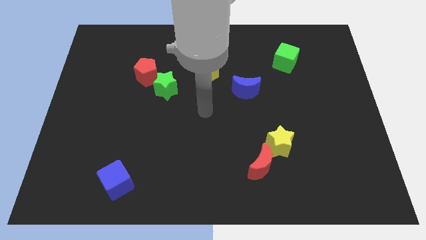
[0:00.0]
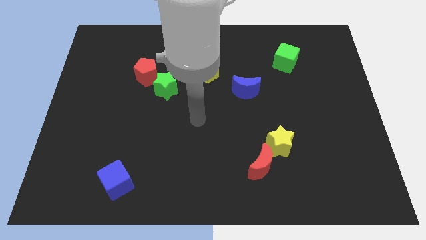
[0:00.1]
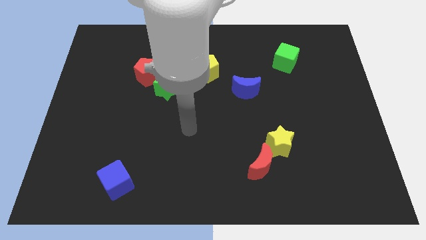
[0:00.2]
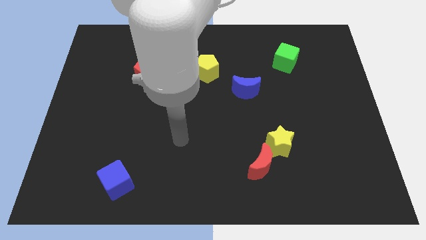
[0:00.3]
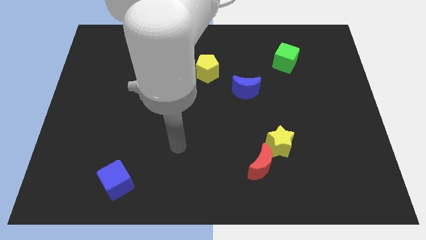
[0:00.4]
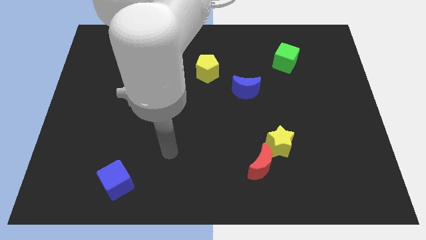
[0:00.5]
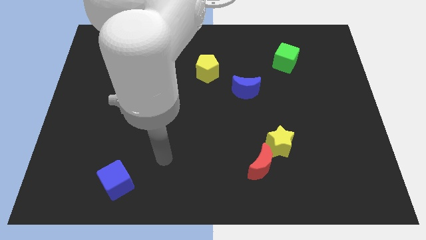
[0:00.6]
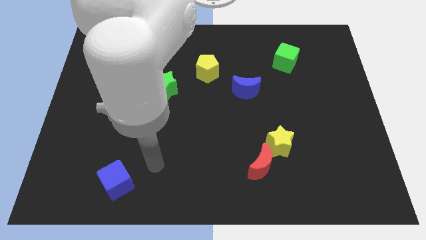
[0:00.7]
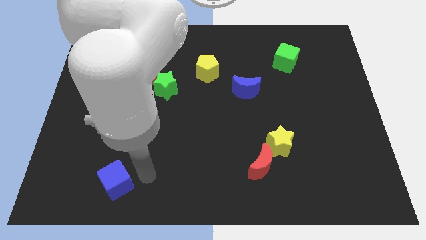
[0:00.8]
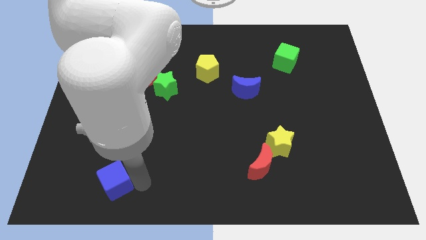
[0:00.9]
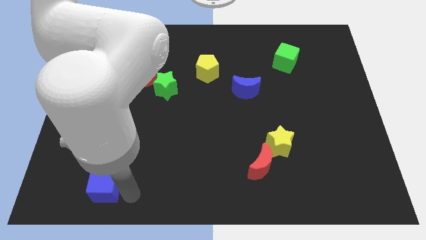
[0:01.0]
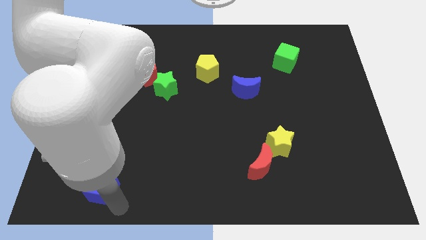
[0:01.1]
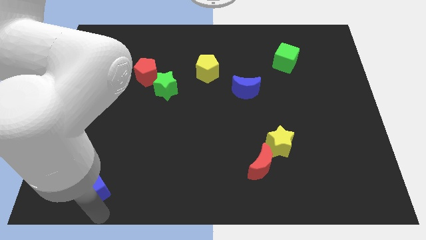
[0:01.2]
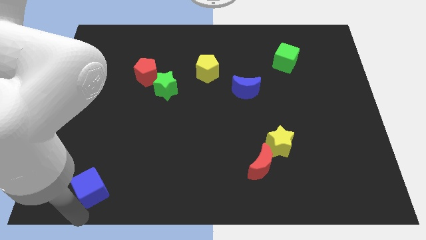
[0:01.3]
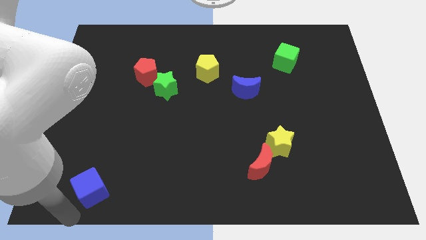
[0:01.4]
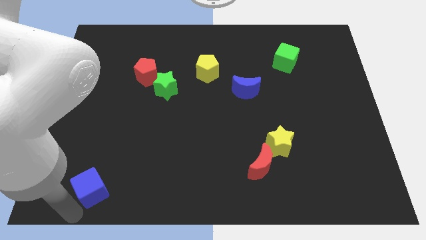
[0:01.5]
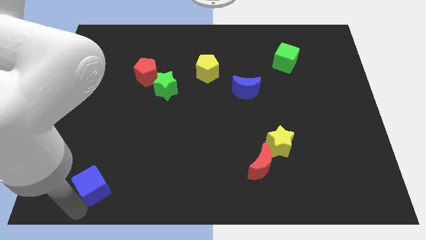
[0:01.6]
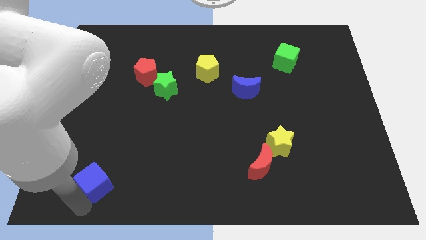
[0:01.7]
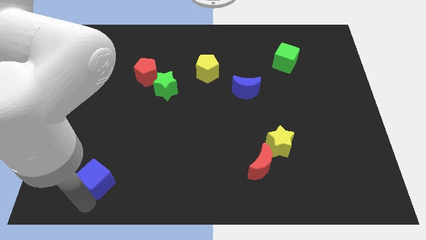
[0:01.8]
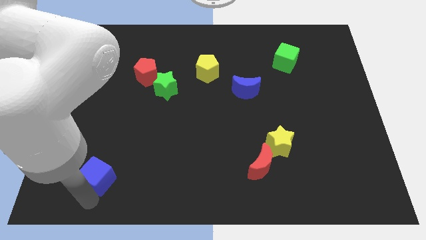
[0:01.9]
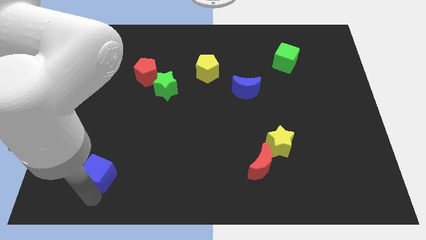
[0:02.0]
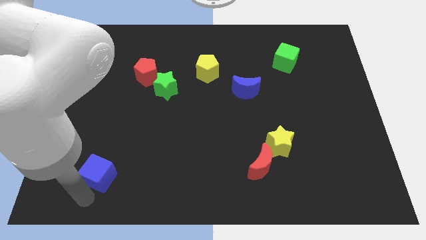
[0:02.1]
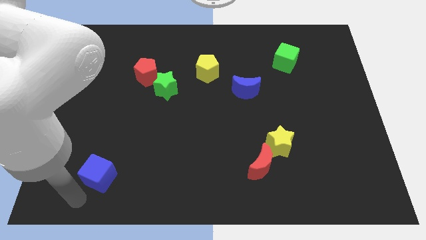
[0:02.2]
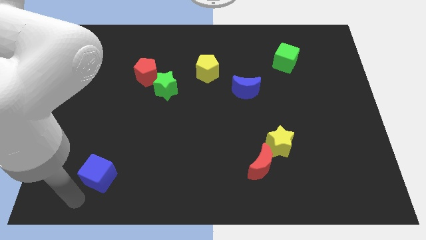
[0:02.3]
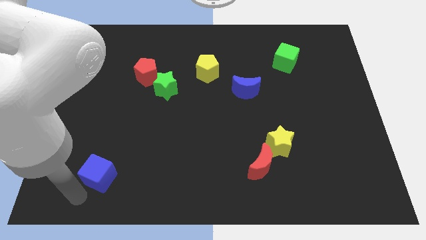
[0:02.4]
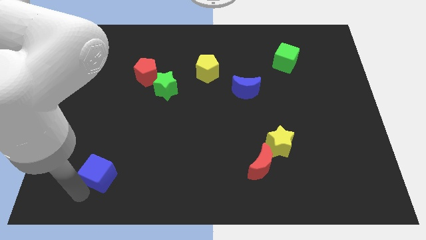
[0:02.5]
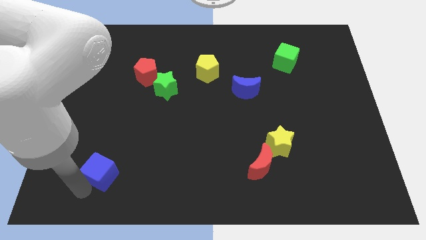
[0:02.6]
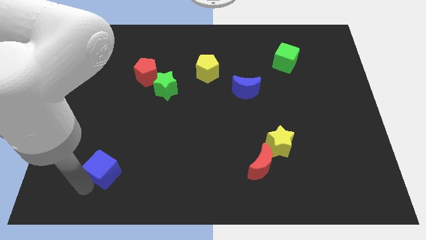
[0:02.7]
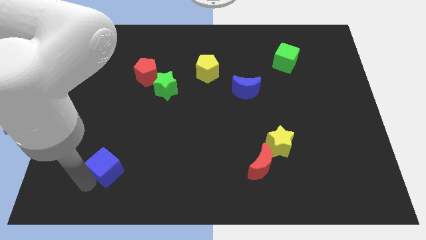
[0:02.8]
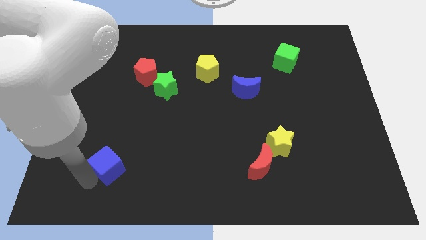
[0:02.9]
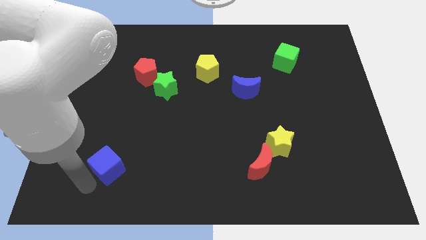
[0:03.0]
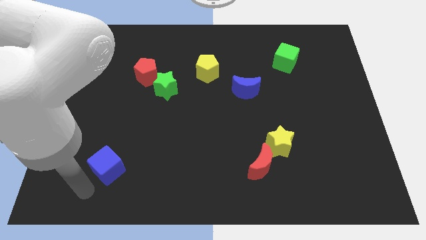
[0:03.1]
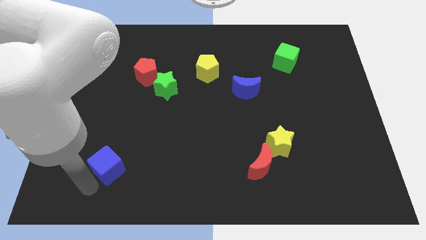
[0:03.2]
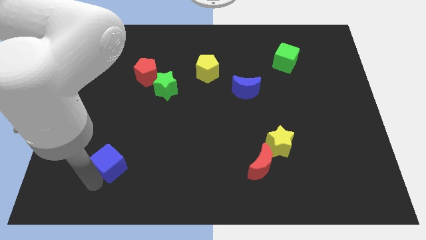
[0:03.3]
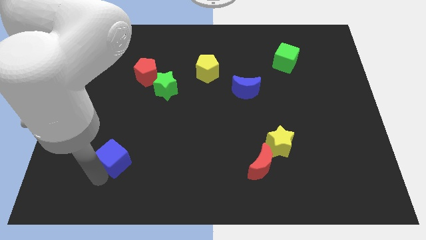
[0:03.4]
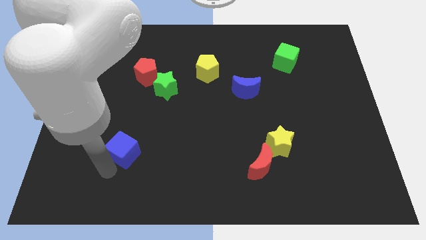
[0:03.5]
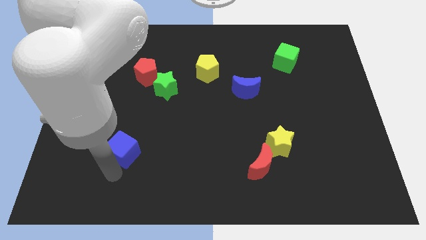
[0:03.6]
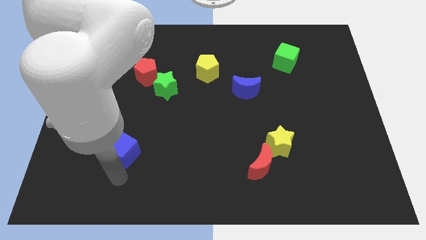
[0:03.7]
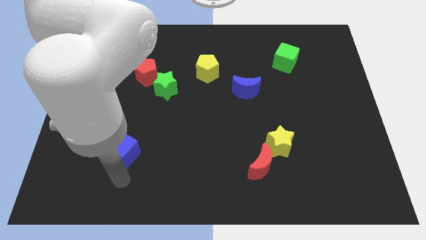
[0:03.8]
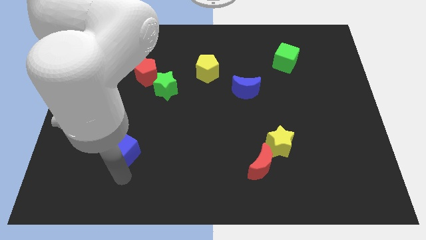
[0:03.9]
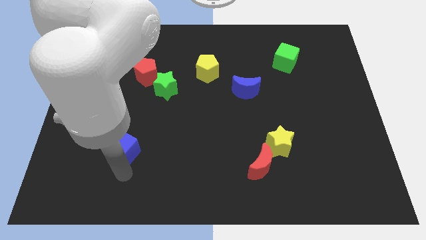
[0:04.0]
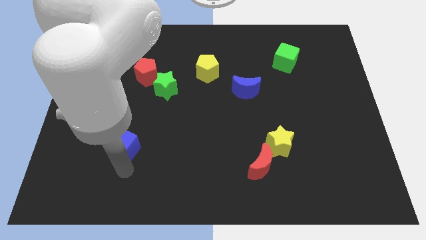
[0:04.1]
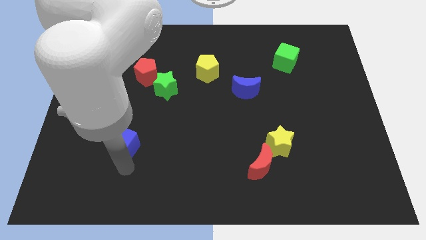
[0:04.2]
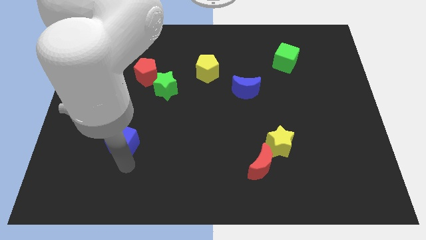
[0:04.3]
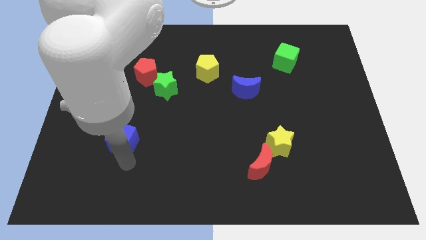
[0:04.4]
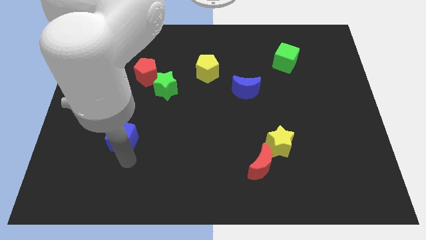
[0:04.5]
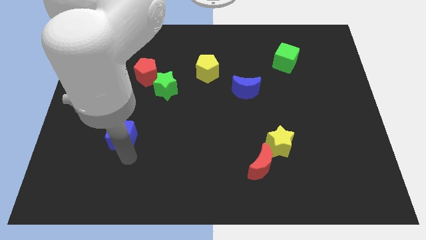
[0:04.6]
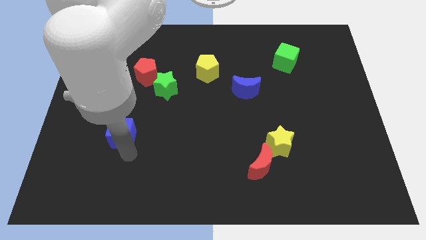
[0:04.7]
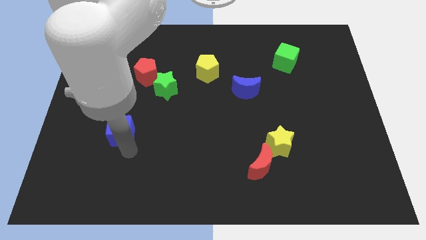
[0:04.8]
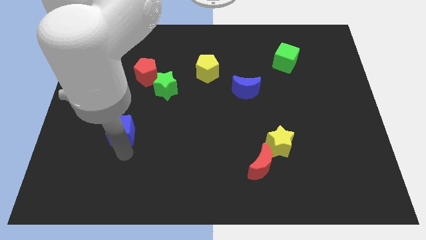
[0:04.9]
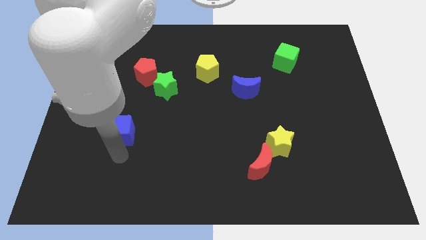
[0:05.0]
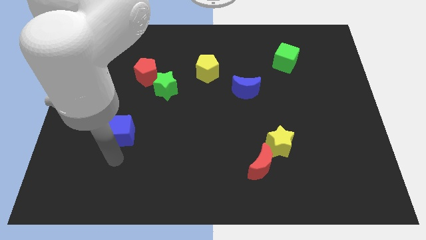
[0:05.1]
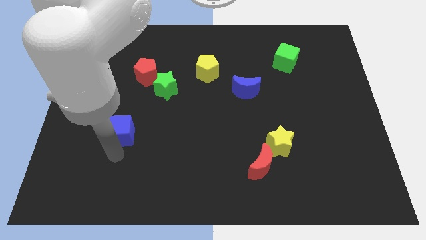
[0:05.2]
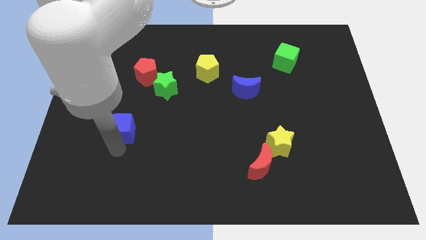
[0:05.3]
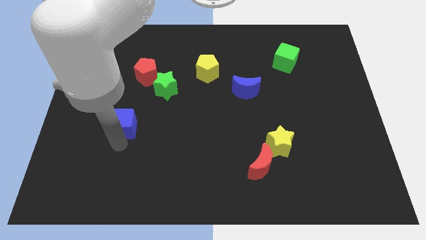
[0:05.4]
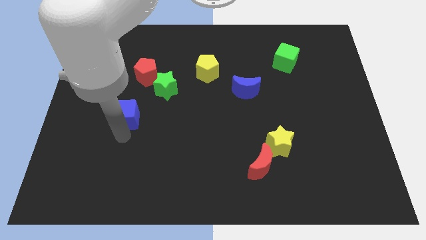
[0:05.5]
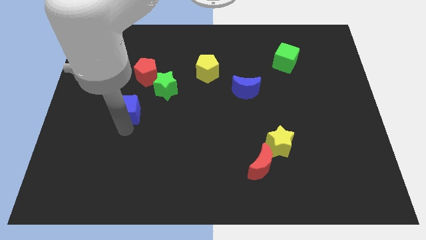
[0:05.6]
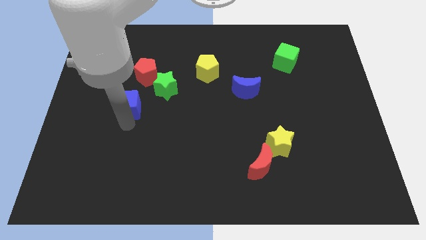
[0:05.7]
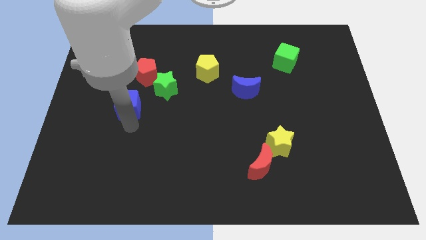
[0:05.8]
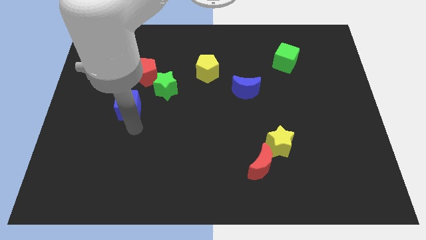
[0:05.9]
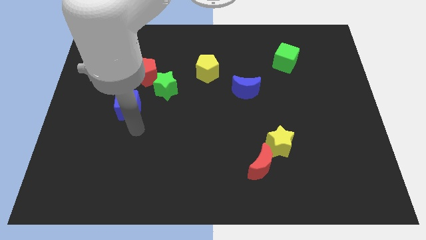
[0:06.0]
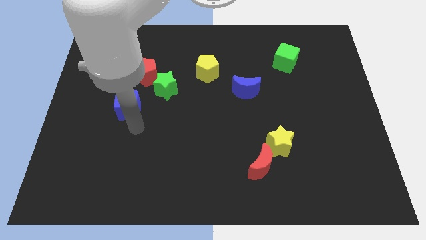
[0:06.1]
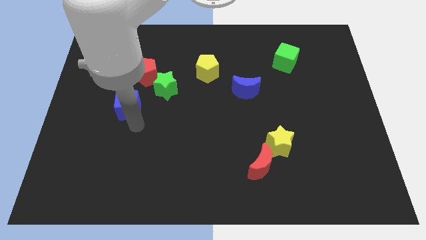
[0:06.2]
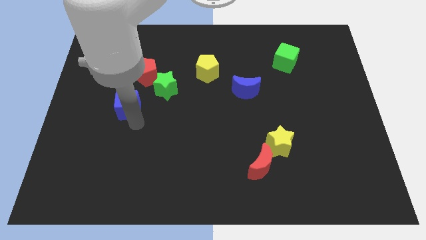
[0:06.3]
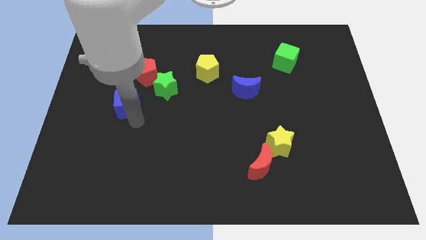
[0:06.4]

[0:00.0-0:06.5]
move the blue cube upwards

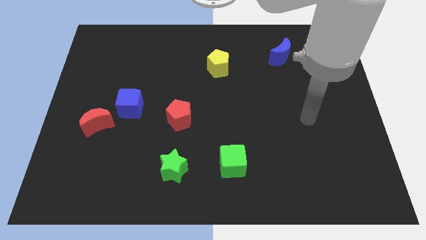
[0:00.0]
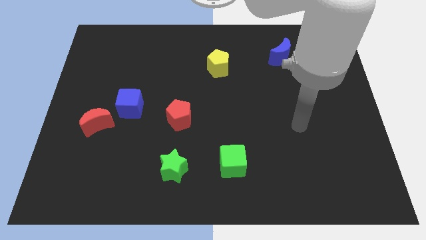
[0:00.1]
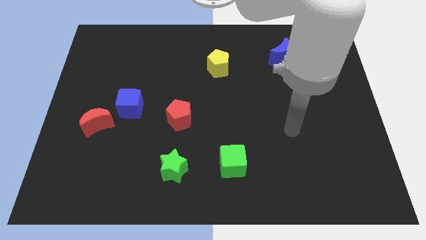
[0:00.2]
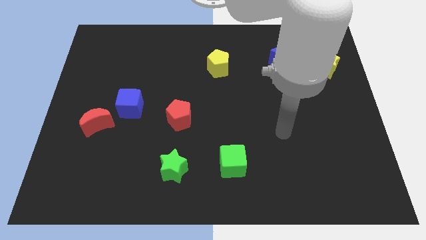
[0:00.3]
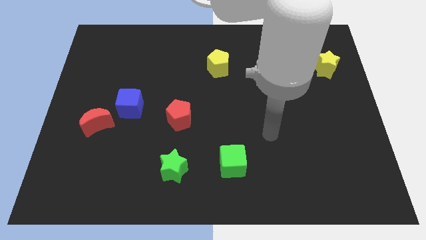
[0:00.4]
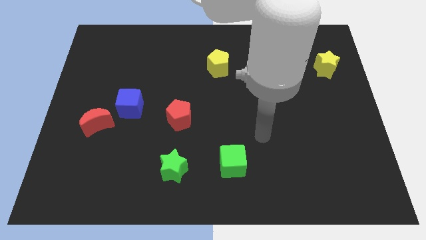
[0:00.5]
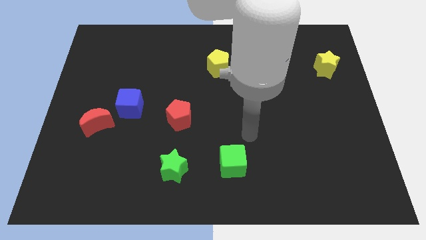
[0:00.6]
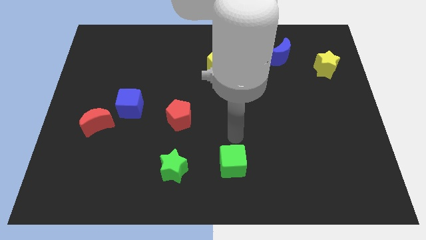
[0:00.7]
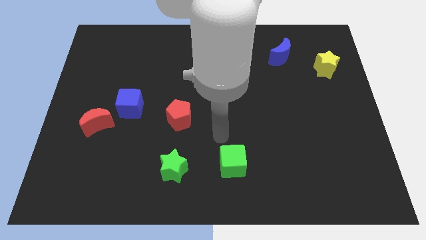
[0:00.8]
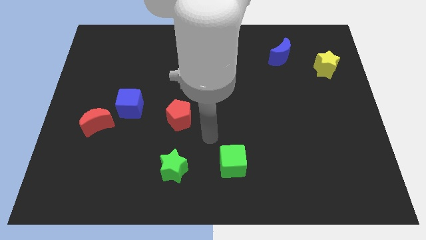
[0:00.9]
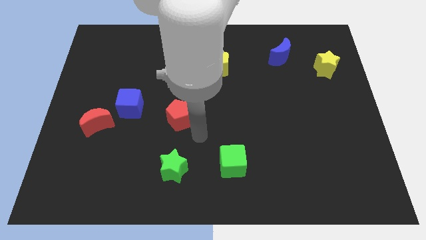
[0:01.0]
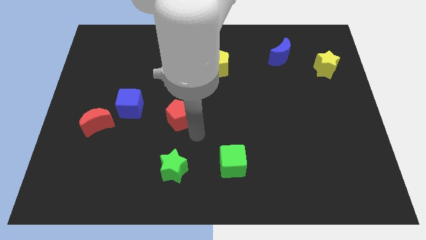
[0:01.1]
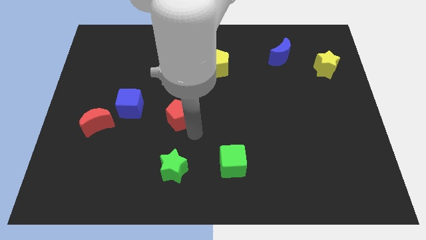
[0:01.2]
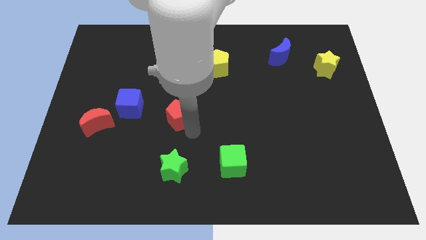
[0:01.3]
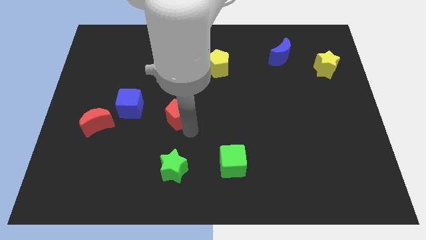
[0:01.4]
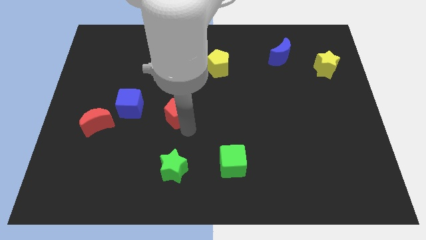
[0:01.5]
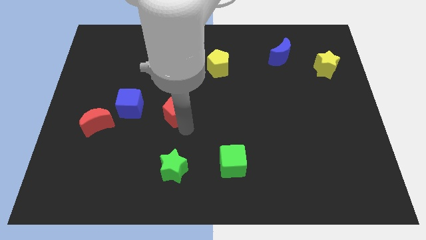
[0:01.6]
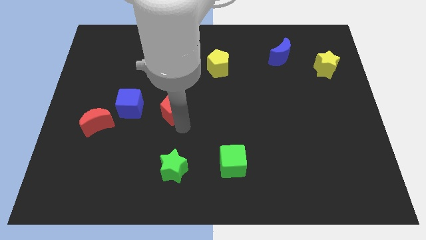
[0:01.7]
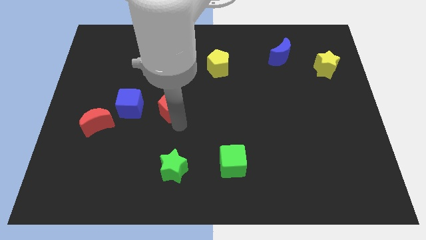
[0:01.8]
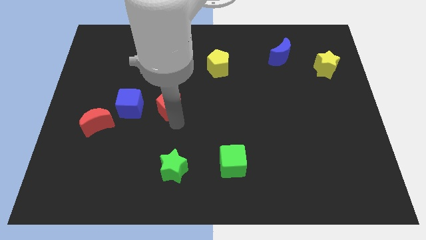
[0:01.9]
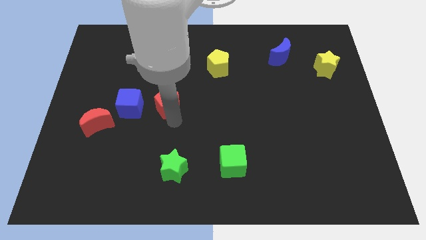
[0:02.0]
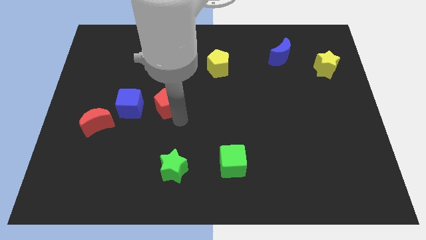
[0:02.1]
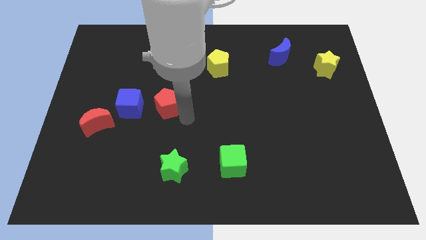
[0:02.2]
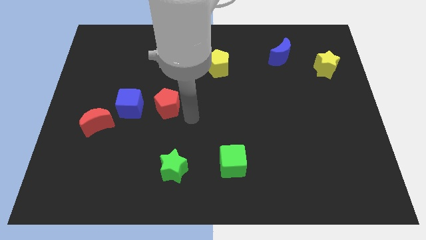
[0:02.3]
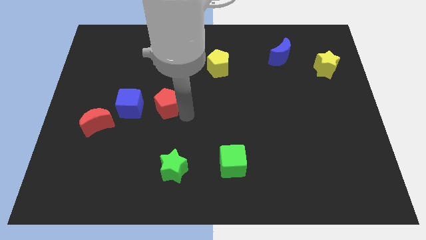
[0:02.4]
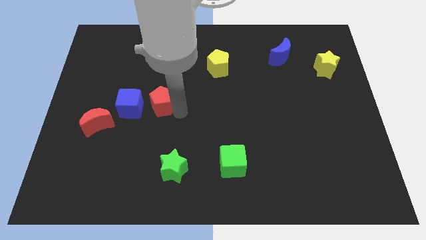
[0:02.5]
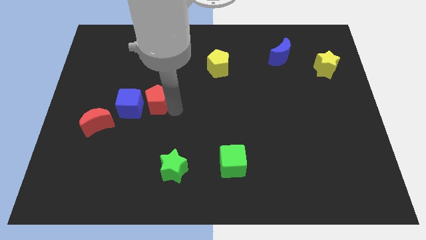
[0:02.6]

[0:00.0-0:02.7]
slide the red pentagon diagonally upwards and left a bit
